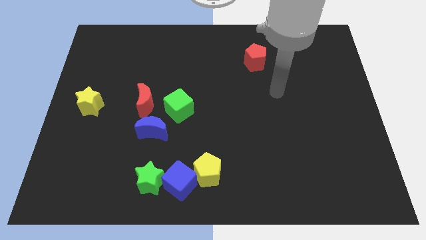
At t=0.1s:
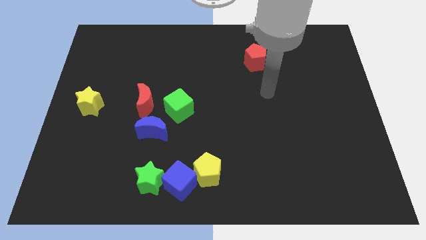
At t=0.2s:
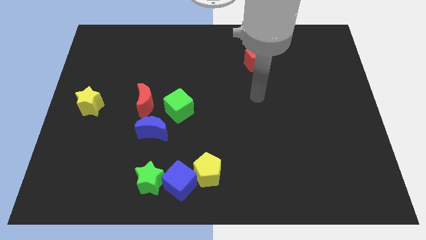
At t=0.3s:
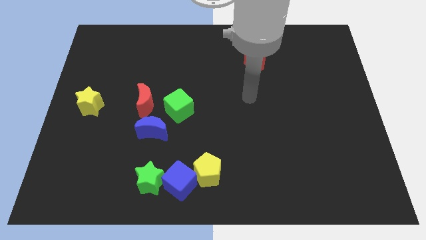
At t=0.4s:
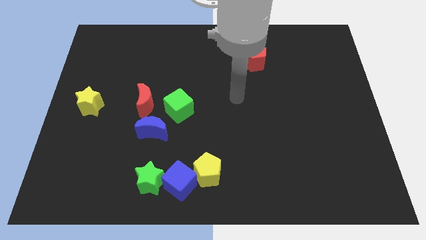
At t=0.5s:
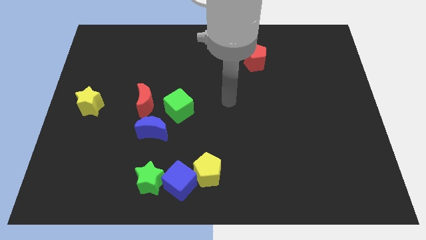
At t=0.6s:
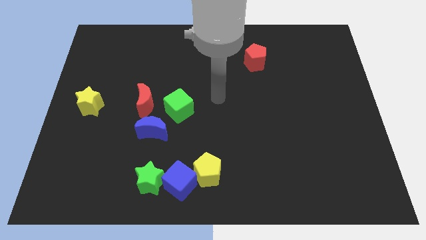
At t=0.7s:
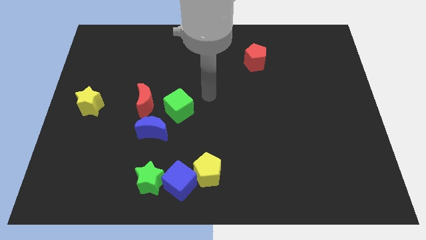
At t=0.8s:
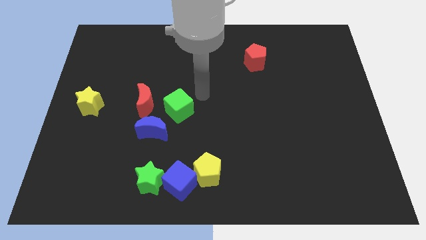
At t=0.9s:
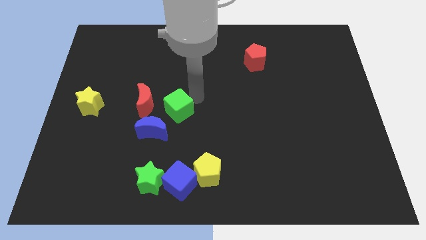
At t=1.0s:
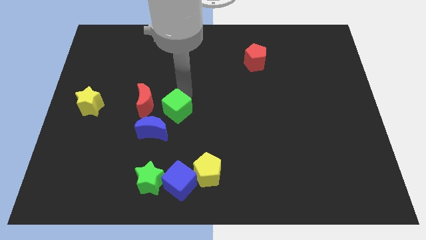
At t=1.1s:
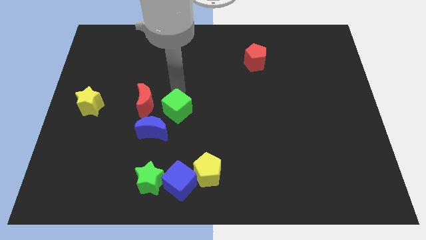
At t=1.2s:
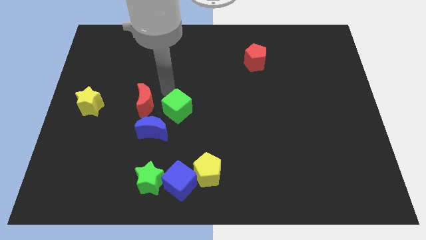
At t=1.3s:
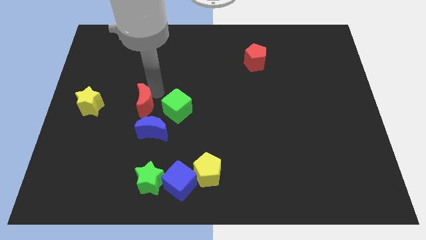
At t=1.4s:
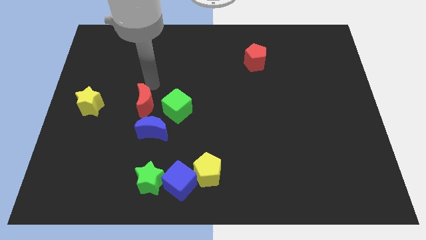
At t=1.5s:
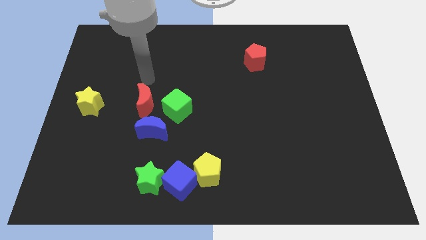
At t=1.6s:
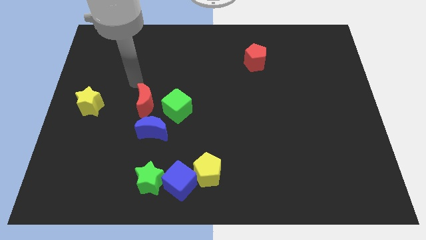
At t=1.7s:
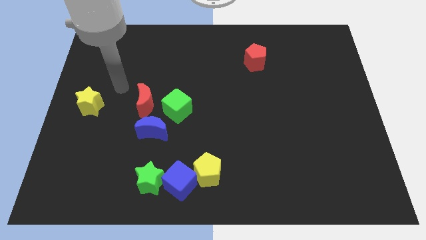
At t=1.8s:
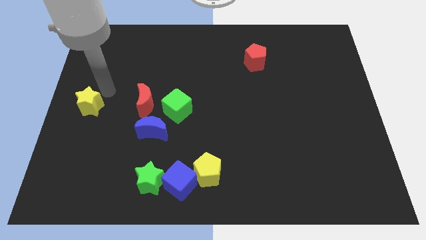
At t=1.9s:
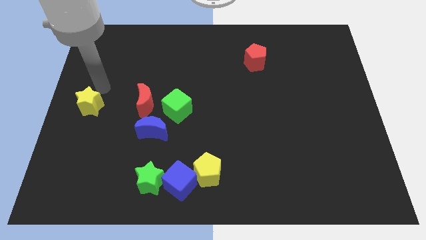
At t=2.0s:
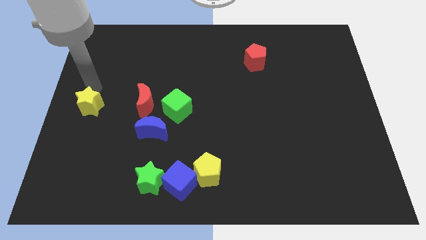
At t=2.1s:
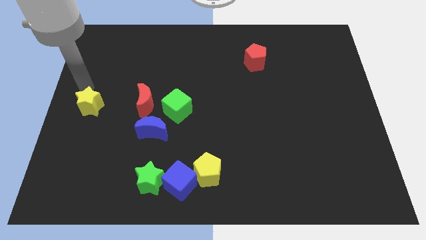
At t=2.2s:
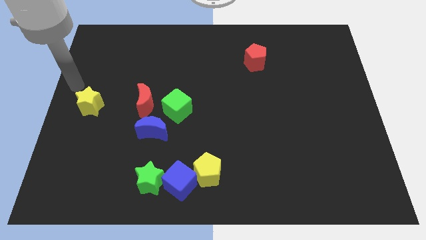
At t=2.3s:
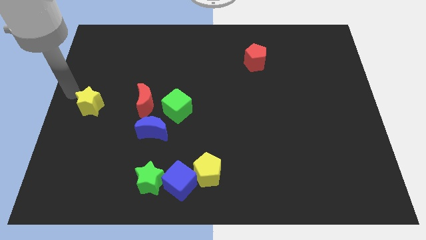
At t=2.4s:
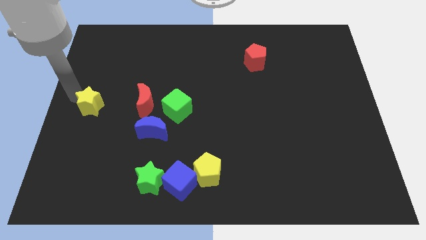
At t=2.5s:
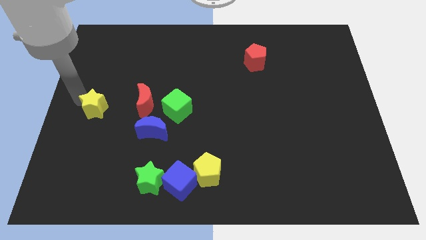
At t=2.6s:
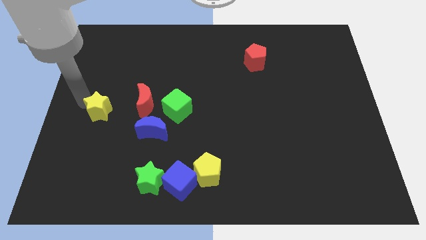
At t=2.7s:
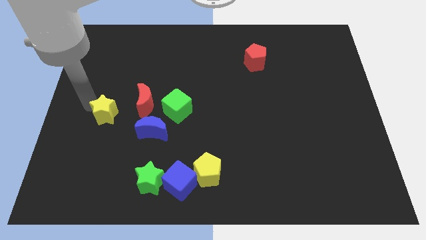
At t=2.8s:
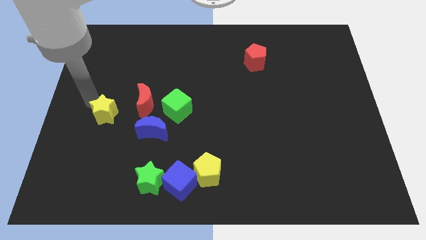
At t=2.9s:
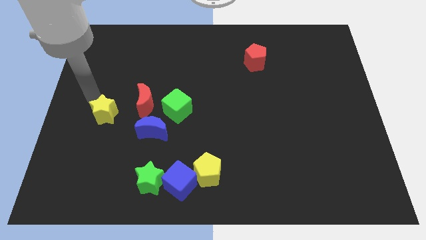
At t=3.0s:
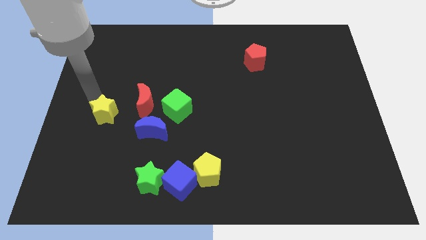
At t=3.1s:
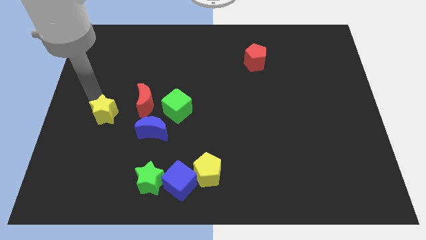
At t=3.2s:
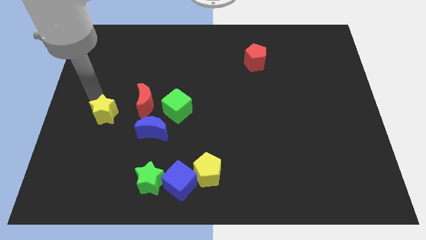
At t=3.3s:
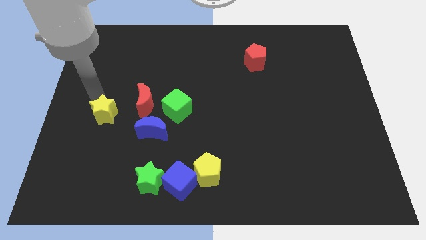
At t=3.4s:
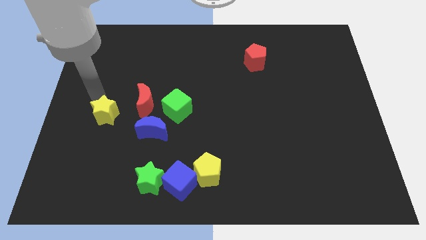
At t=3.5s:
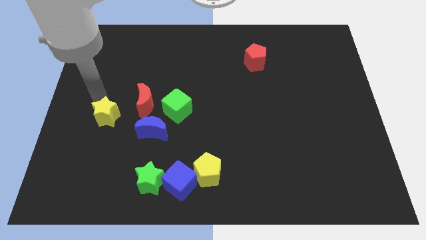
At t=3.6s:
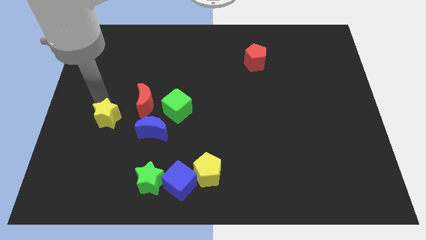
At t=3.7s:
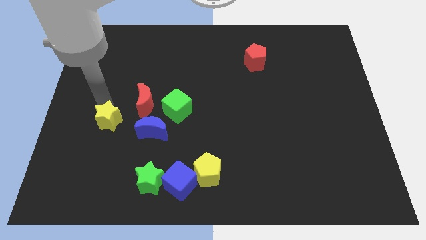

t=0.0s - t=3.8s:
push the yellow star slightly downwards and to the right

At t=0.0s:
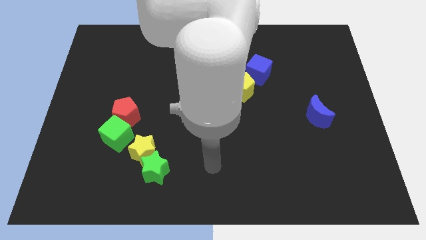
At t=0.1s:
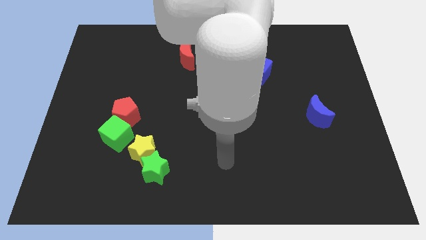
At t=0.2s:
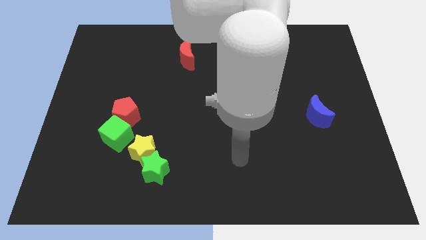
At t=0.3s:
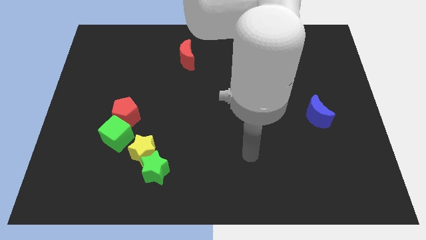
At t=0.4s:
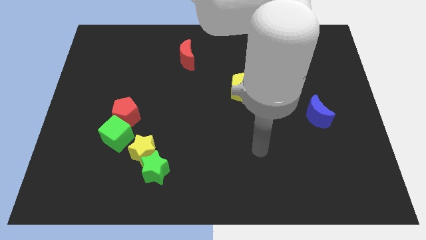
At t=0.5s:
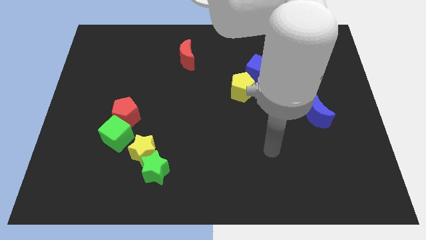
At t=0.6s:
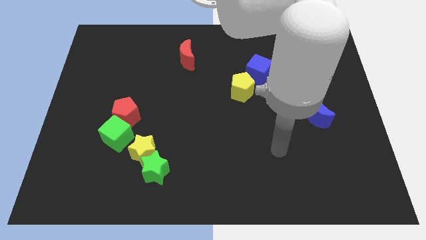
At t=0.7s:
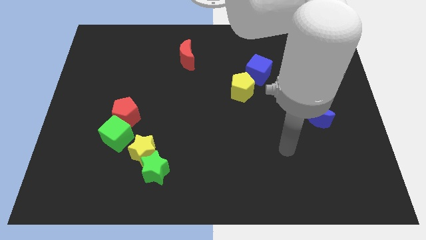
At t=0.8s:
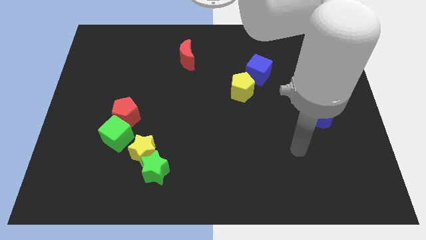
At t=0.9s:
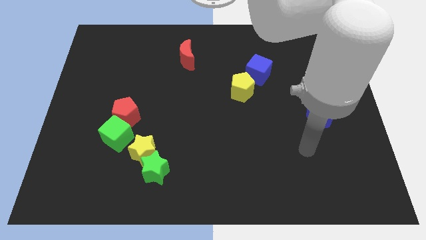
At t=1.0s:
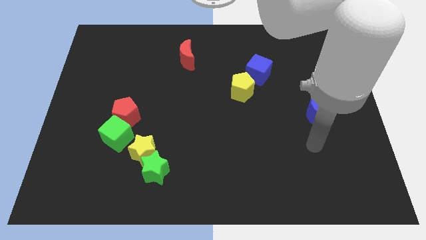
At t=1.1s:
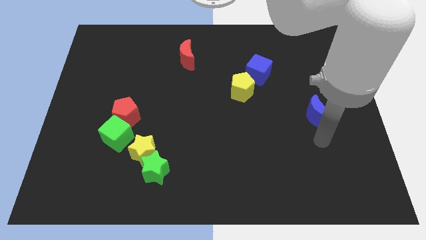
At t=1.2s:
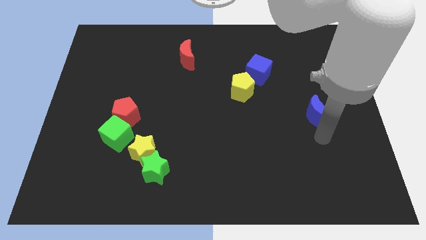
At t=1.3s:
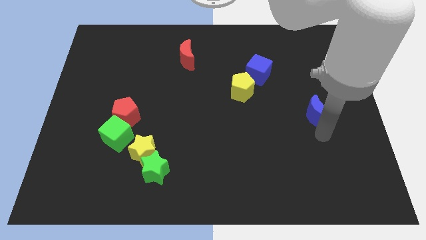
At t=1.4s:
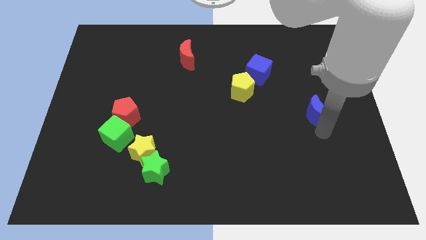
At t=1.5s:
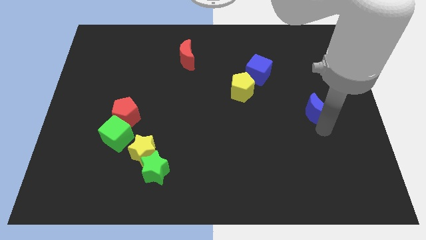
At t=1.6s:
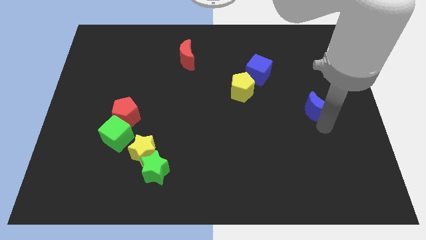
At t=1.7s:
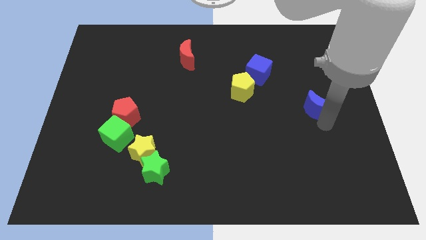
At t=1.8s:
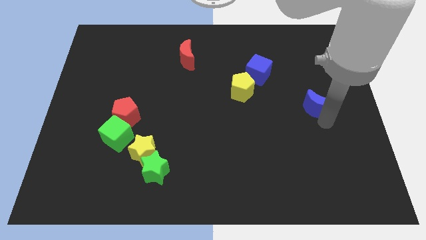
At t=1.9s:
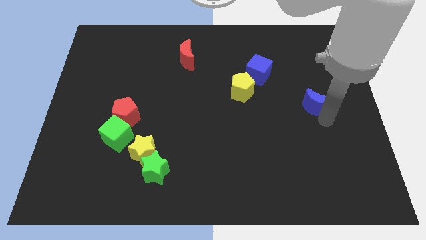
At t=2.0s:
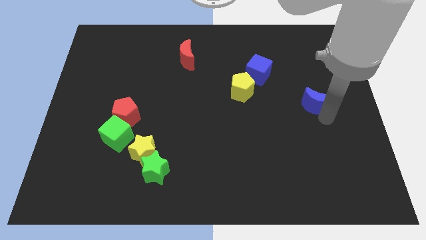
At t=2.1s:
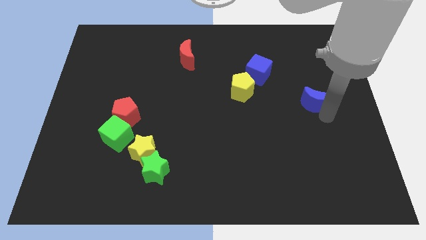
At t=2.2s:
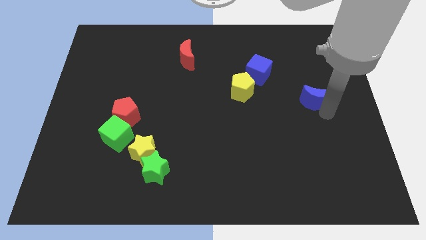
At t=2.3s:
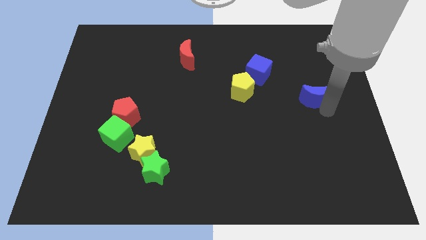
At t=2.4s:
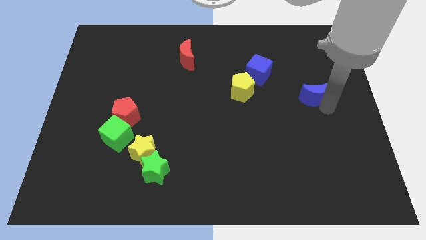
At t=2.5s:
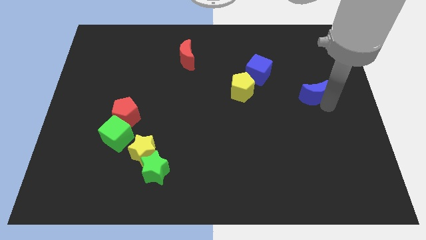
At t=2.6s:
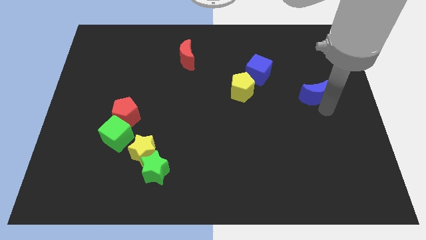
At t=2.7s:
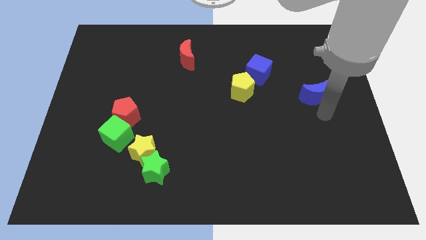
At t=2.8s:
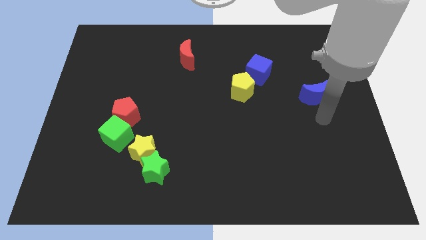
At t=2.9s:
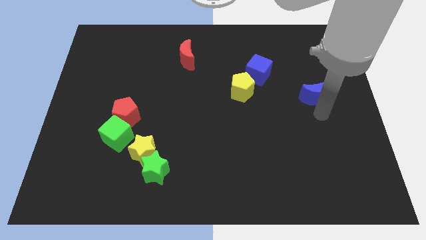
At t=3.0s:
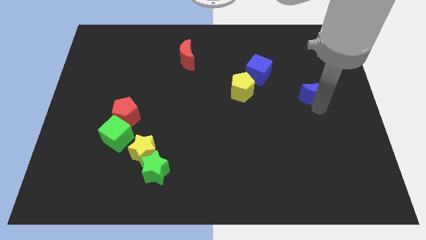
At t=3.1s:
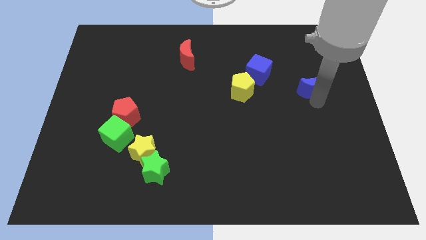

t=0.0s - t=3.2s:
push the blue moon up slightly

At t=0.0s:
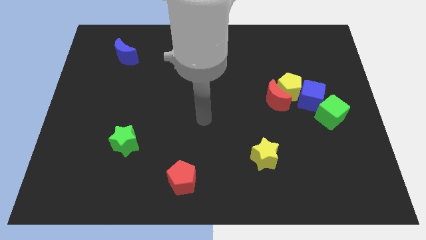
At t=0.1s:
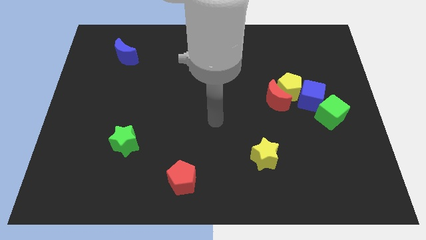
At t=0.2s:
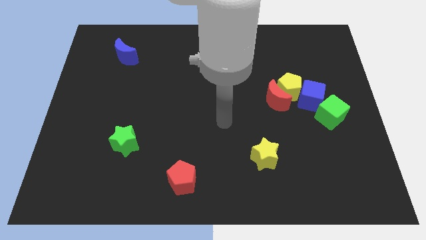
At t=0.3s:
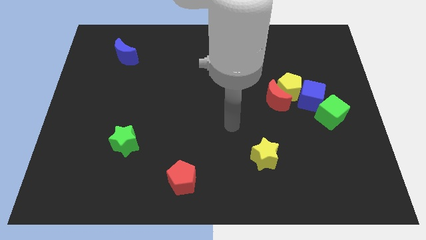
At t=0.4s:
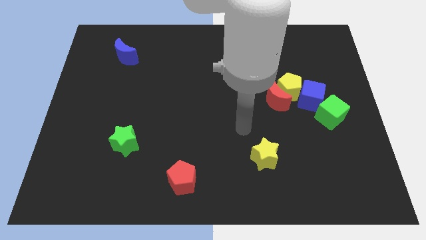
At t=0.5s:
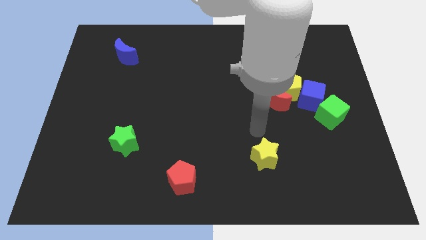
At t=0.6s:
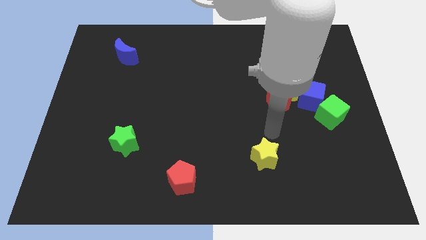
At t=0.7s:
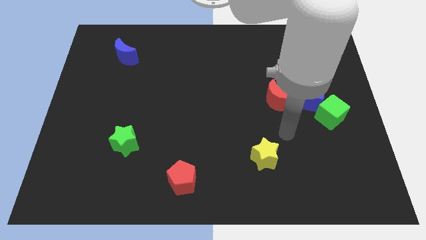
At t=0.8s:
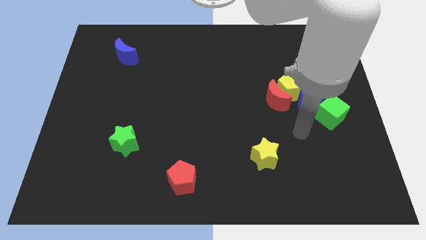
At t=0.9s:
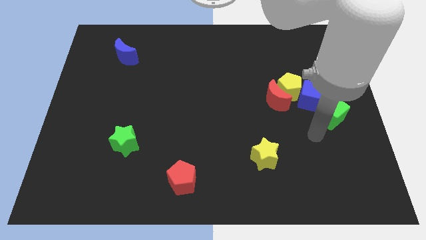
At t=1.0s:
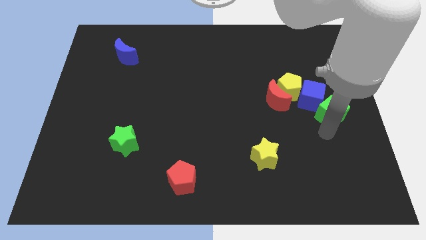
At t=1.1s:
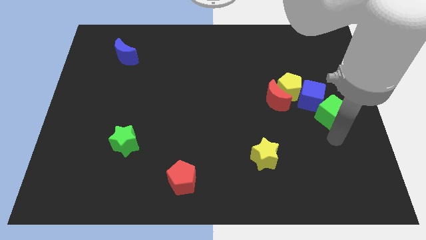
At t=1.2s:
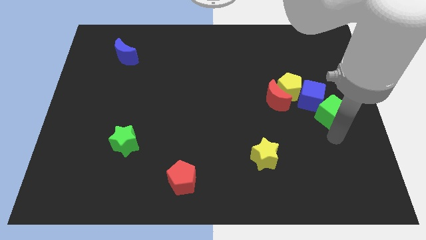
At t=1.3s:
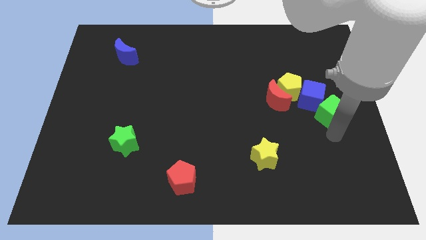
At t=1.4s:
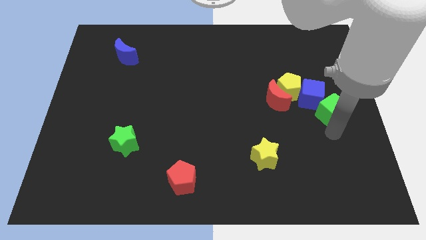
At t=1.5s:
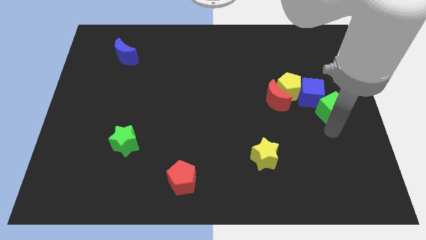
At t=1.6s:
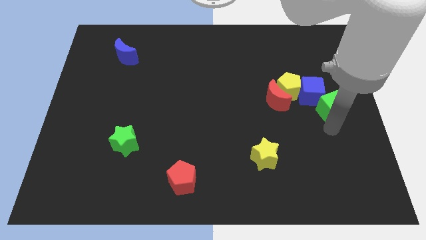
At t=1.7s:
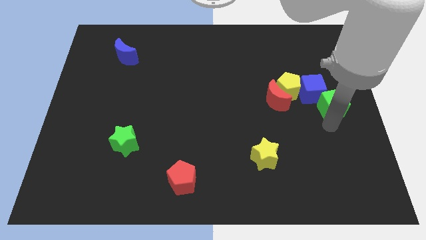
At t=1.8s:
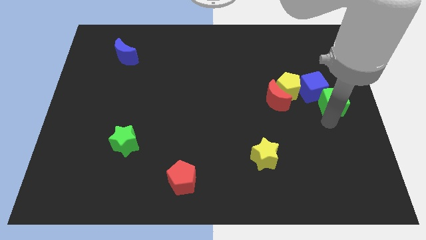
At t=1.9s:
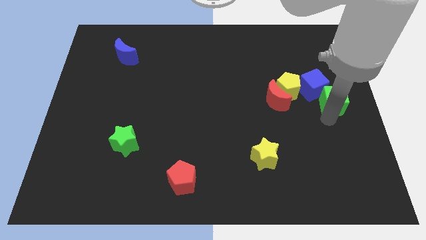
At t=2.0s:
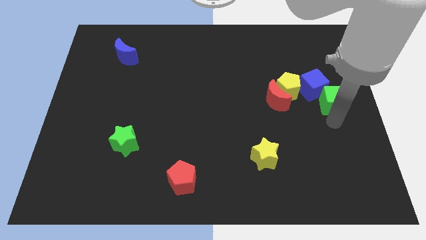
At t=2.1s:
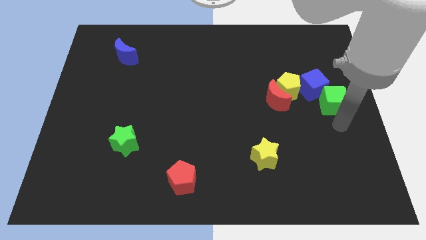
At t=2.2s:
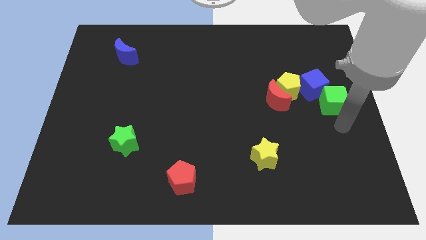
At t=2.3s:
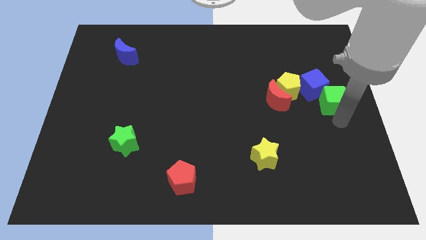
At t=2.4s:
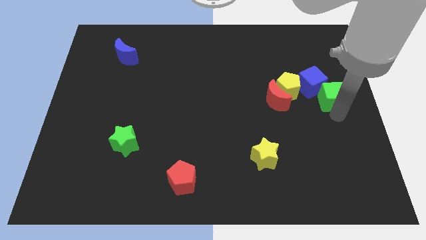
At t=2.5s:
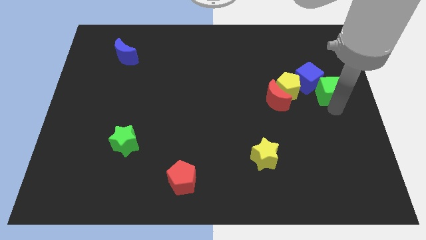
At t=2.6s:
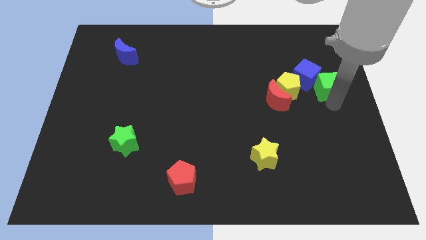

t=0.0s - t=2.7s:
push the green cube up a bit
